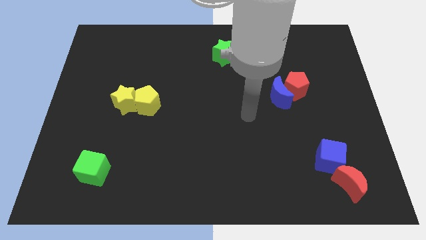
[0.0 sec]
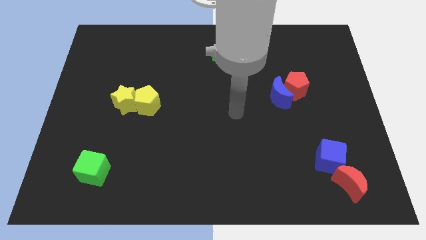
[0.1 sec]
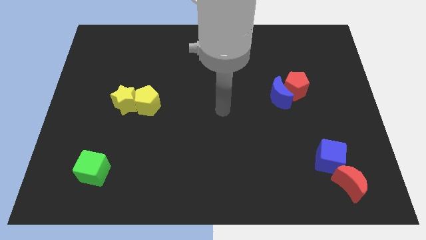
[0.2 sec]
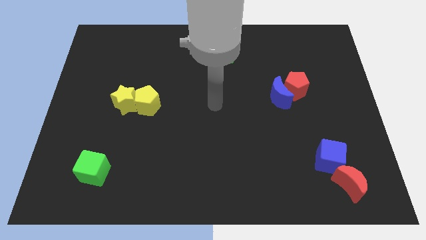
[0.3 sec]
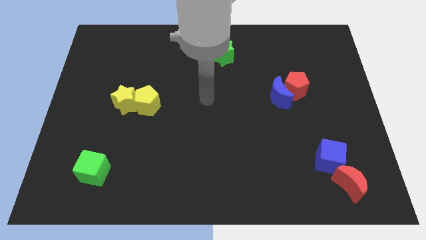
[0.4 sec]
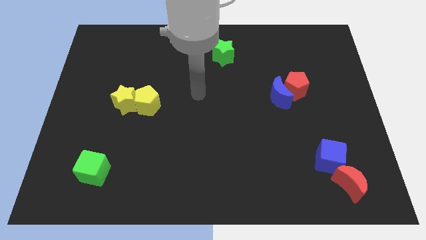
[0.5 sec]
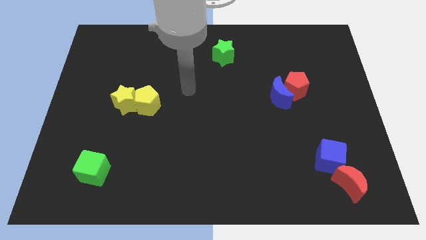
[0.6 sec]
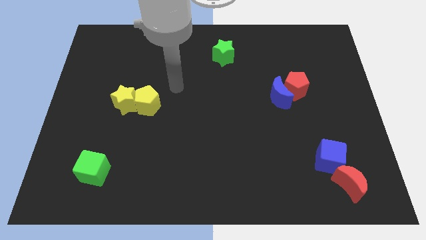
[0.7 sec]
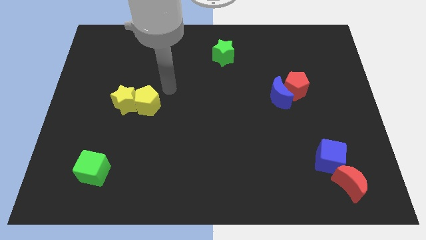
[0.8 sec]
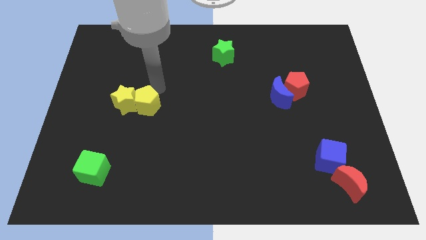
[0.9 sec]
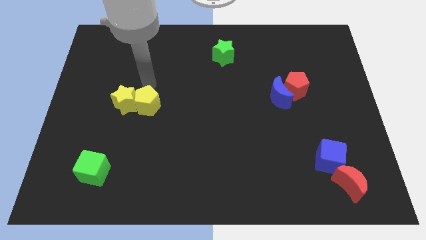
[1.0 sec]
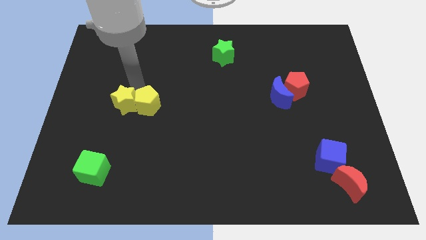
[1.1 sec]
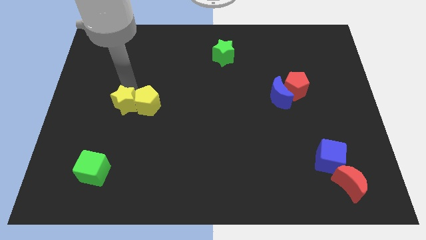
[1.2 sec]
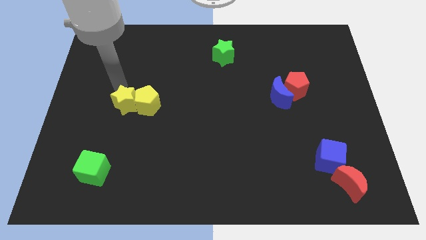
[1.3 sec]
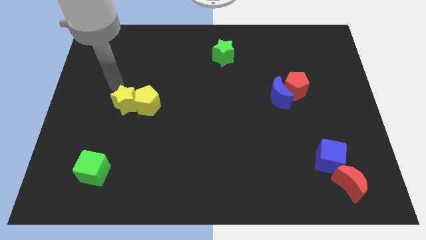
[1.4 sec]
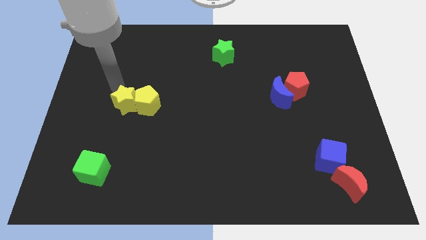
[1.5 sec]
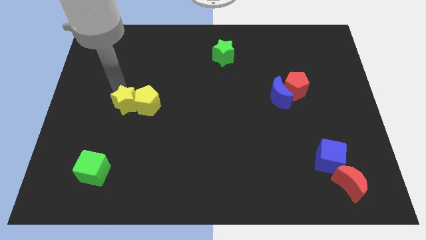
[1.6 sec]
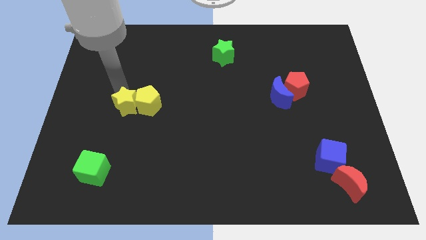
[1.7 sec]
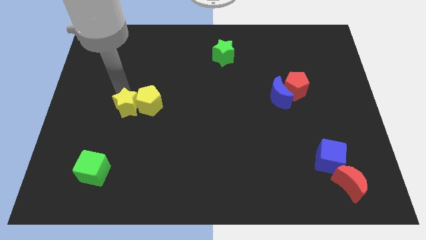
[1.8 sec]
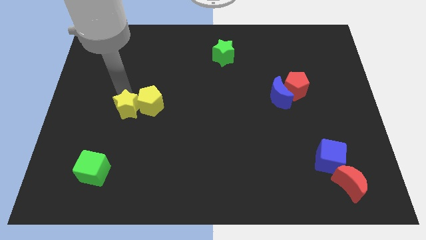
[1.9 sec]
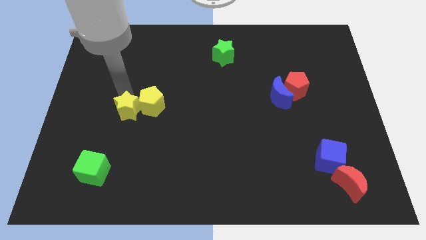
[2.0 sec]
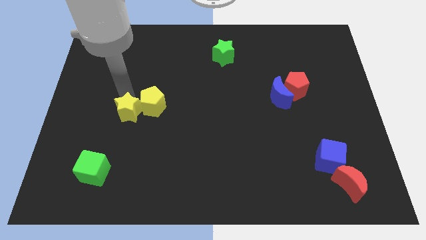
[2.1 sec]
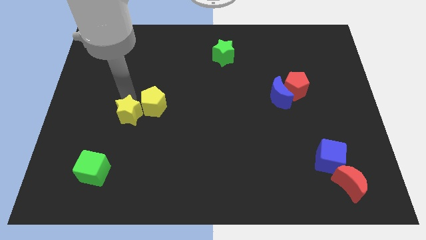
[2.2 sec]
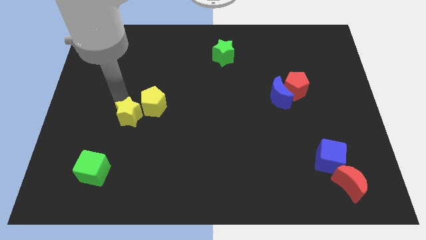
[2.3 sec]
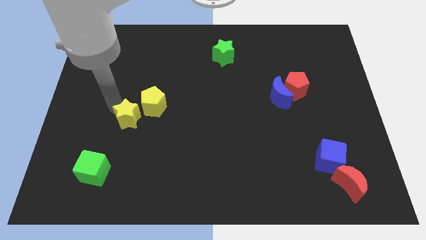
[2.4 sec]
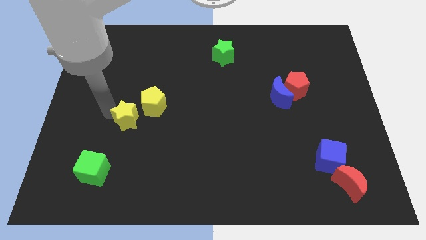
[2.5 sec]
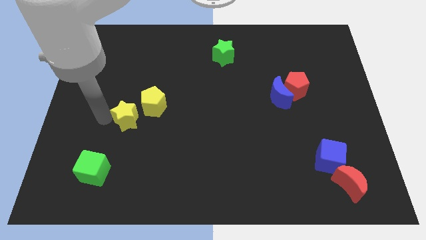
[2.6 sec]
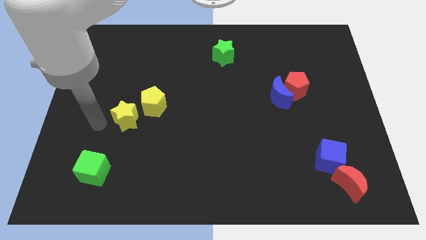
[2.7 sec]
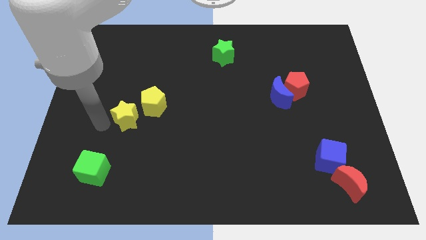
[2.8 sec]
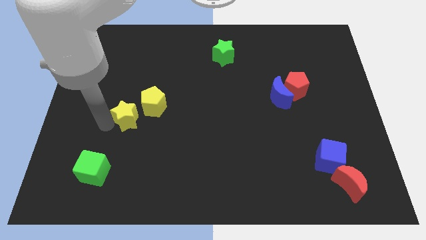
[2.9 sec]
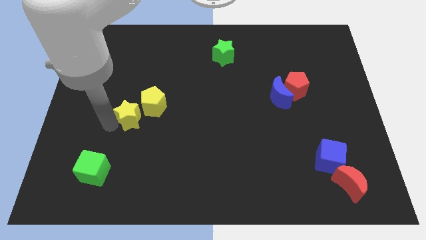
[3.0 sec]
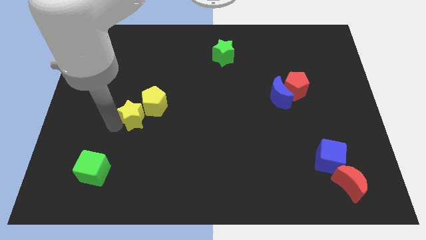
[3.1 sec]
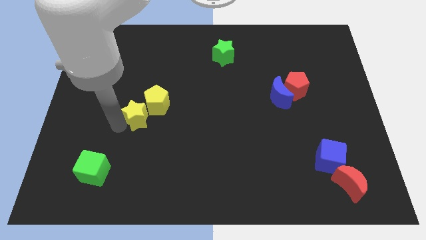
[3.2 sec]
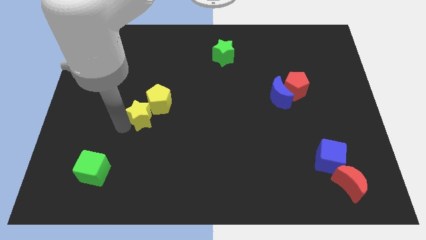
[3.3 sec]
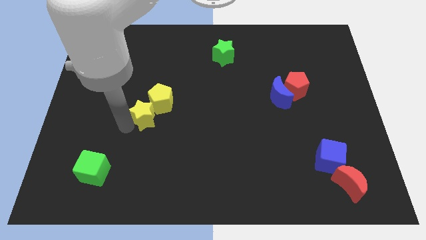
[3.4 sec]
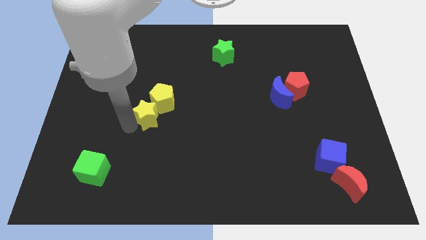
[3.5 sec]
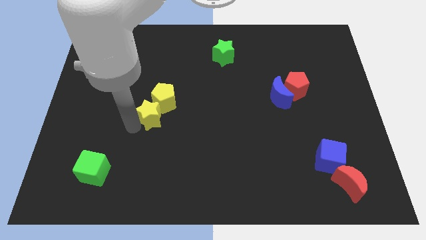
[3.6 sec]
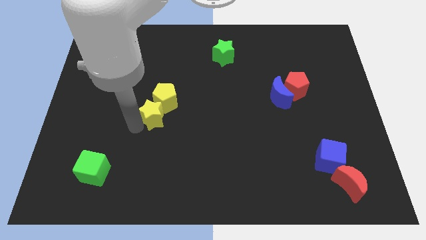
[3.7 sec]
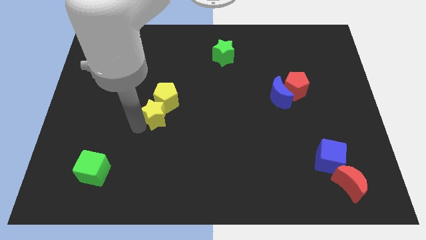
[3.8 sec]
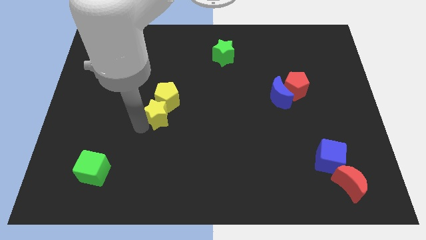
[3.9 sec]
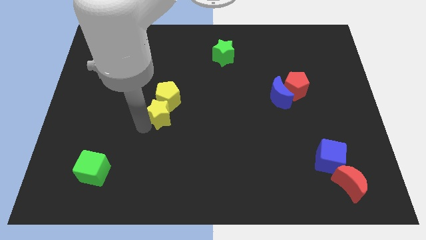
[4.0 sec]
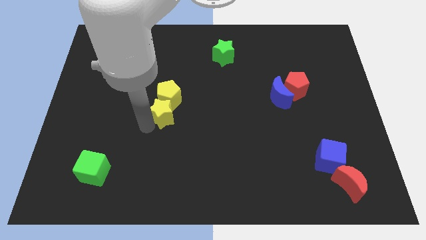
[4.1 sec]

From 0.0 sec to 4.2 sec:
put the yellow star to the middle

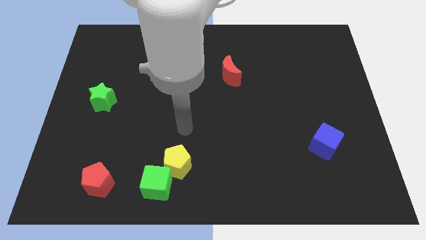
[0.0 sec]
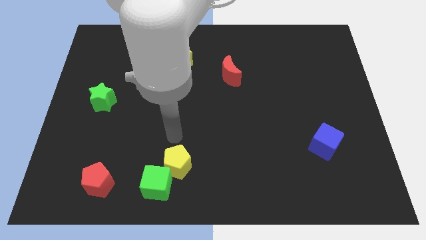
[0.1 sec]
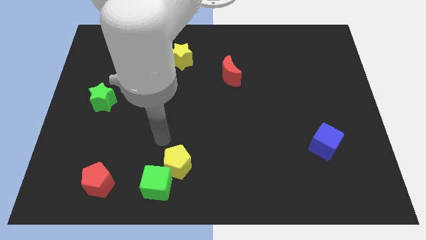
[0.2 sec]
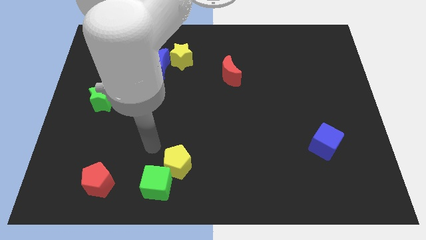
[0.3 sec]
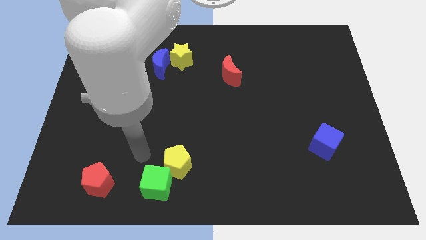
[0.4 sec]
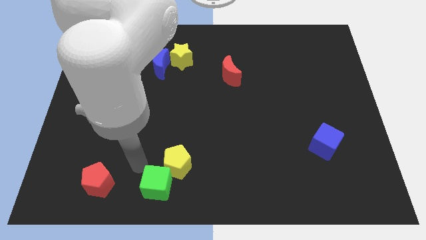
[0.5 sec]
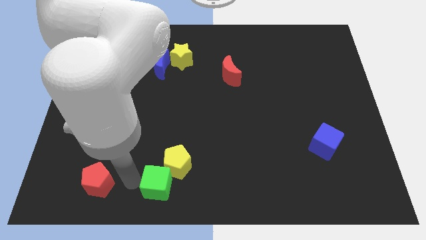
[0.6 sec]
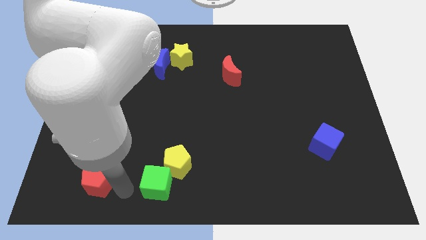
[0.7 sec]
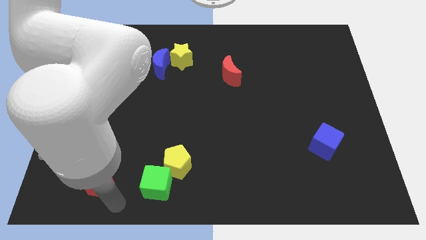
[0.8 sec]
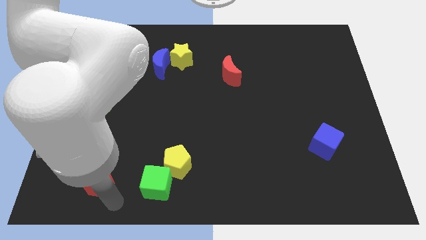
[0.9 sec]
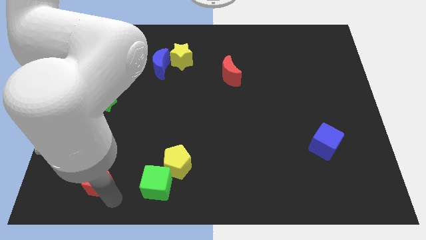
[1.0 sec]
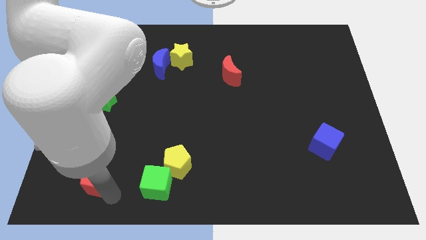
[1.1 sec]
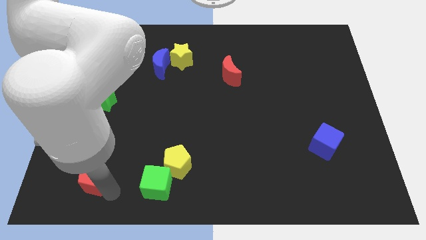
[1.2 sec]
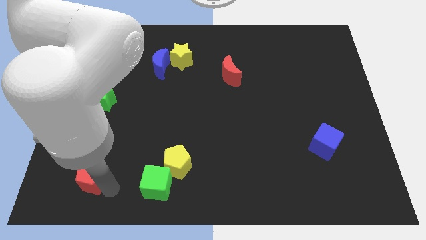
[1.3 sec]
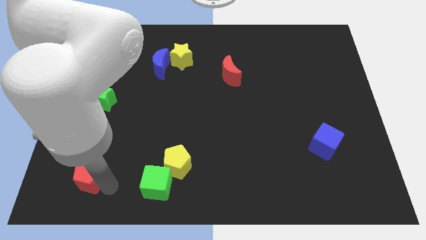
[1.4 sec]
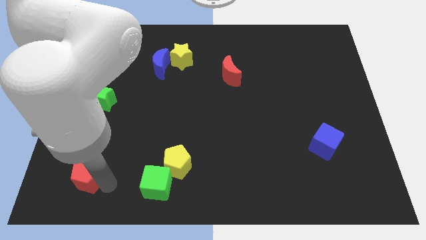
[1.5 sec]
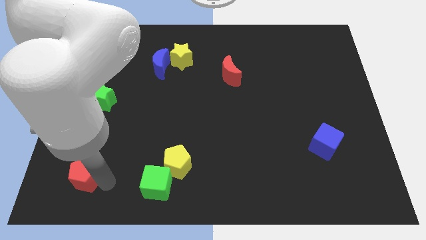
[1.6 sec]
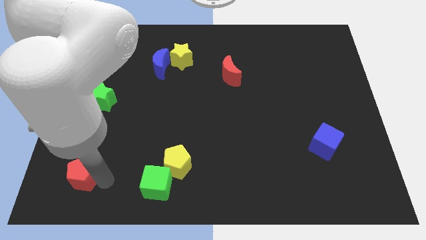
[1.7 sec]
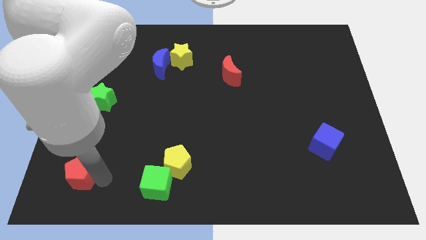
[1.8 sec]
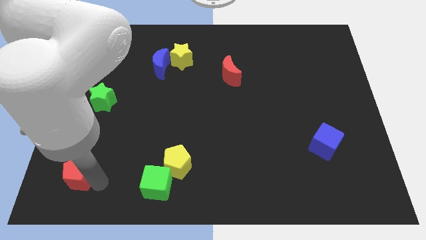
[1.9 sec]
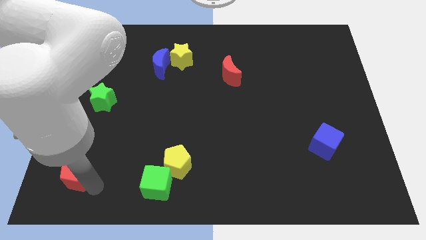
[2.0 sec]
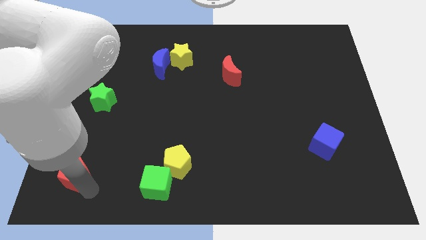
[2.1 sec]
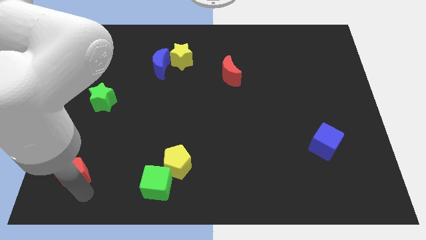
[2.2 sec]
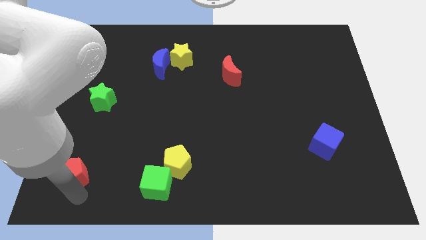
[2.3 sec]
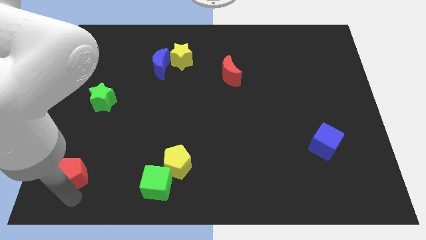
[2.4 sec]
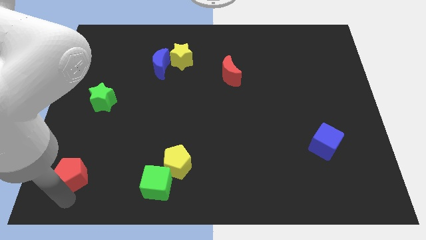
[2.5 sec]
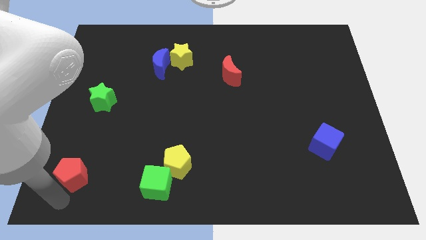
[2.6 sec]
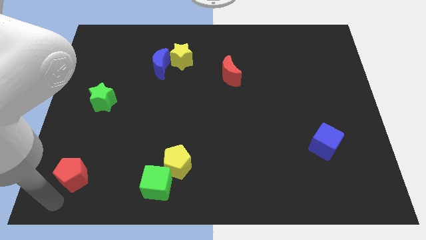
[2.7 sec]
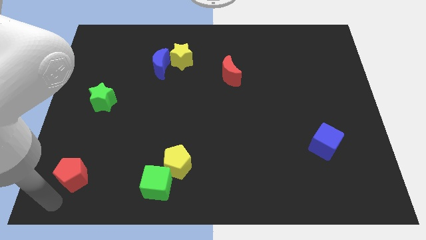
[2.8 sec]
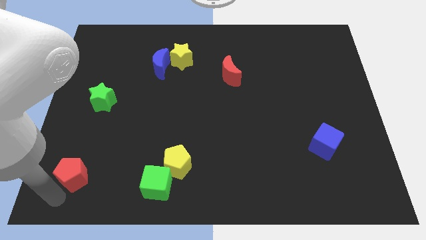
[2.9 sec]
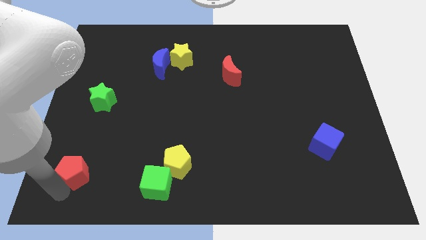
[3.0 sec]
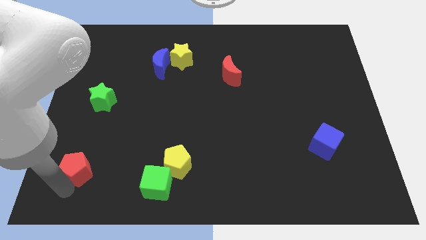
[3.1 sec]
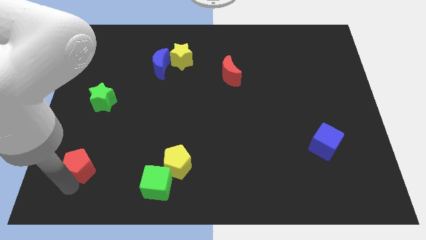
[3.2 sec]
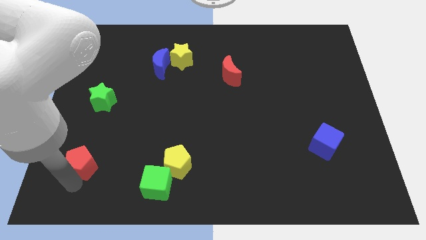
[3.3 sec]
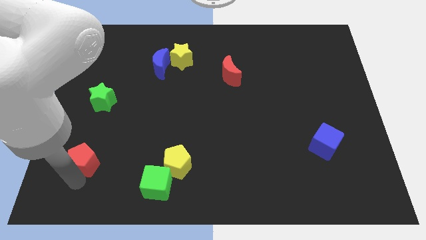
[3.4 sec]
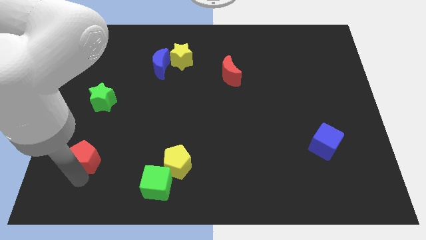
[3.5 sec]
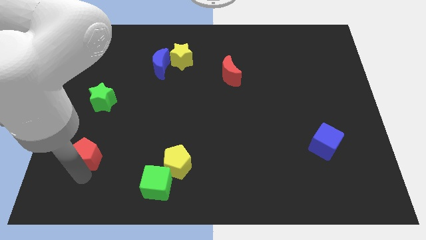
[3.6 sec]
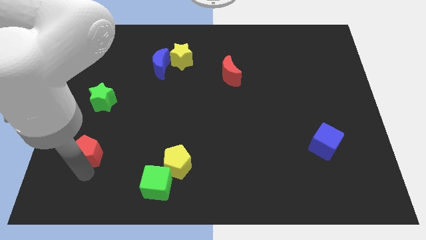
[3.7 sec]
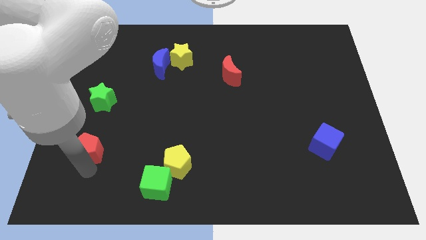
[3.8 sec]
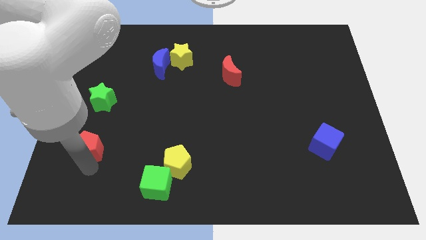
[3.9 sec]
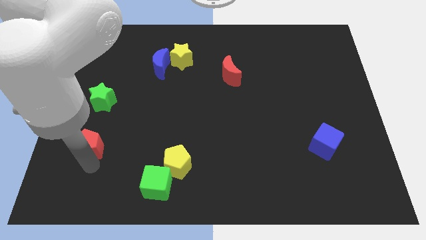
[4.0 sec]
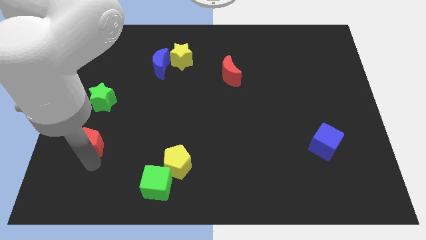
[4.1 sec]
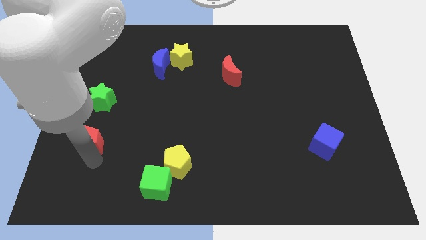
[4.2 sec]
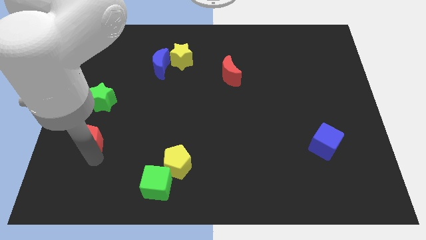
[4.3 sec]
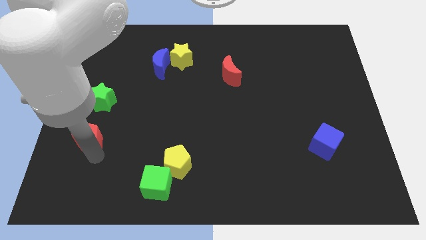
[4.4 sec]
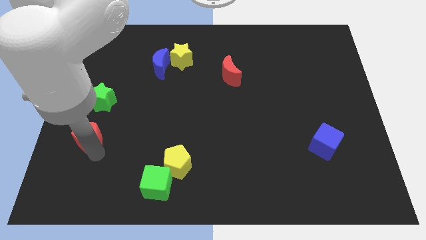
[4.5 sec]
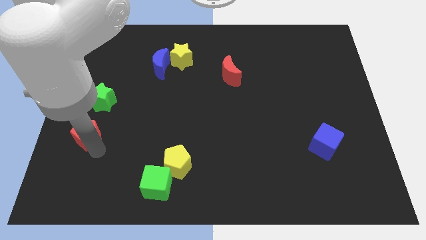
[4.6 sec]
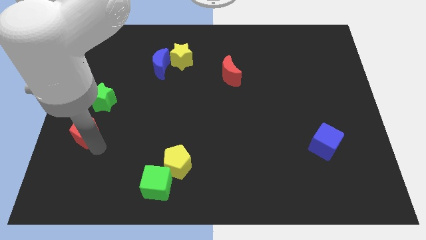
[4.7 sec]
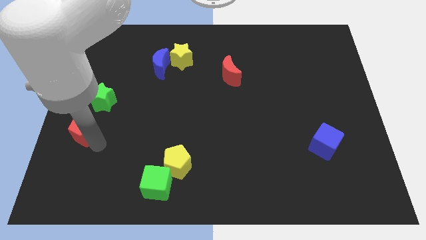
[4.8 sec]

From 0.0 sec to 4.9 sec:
push the red pentagon to the center left
